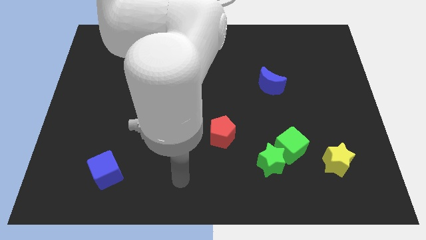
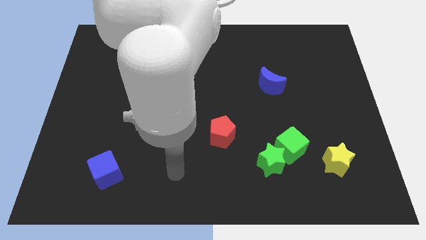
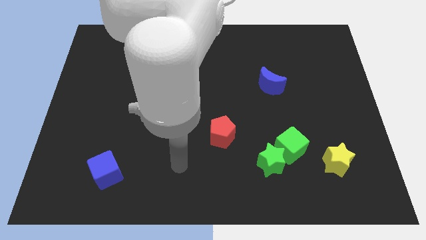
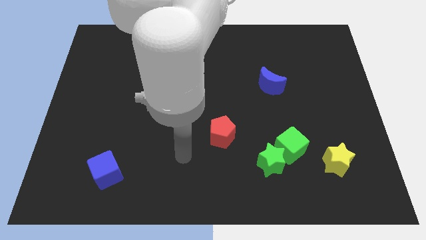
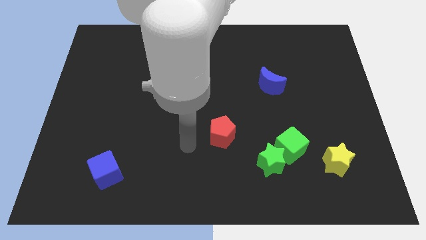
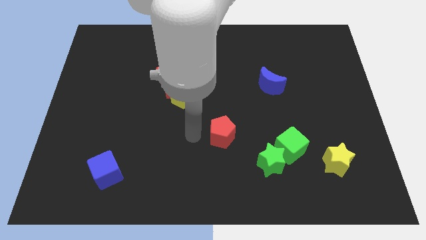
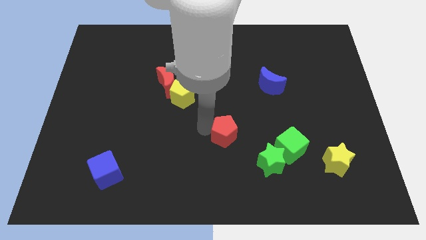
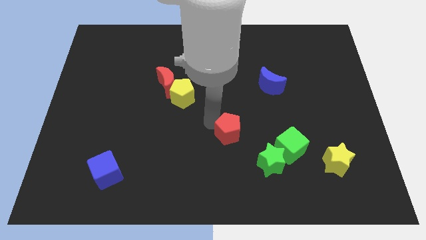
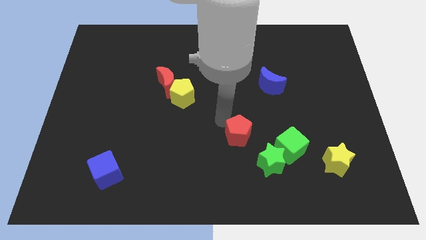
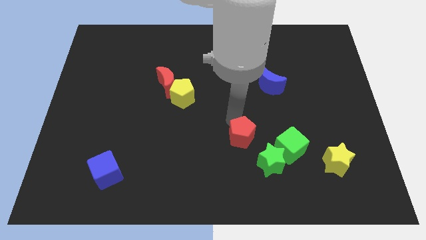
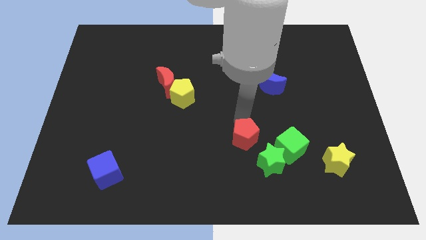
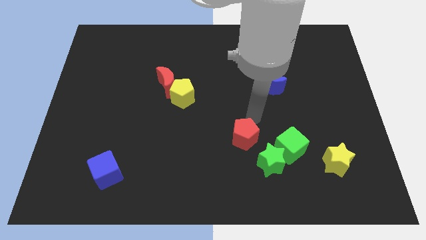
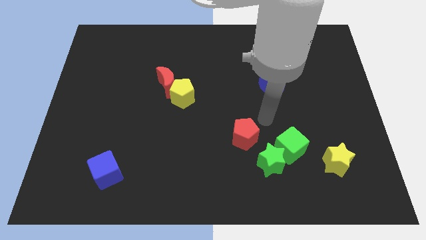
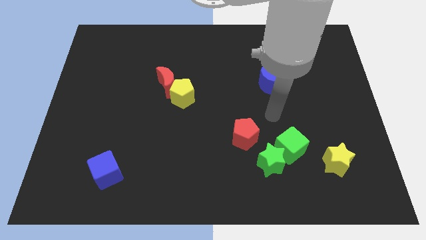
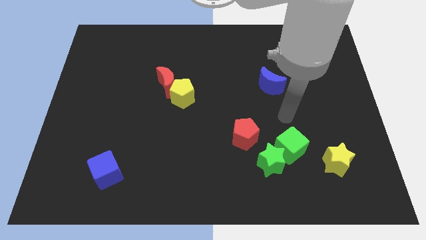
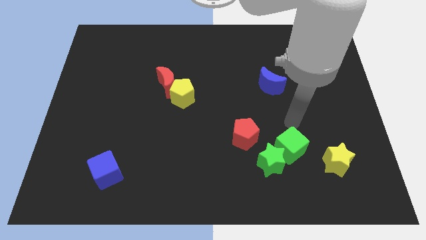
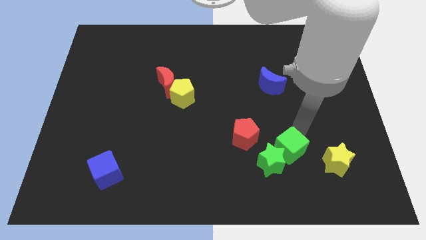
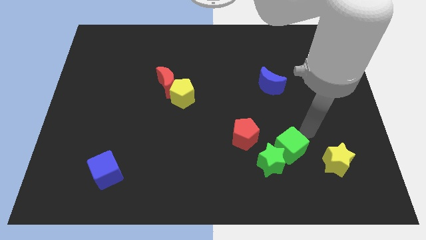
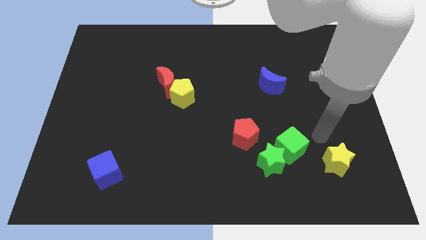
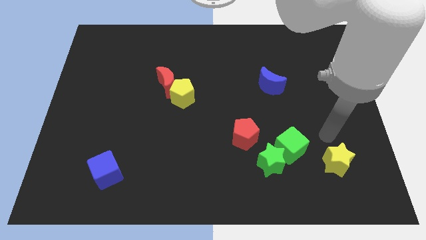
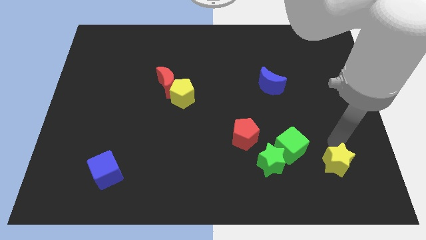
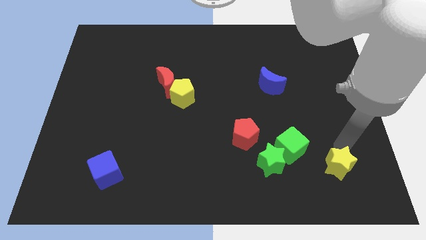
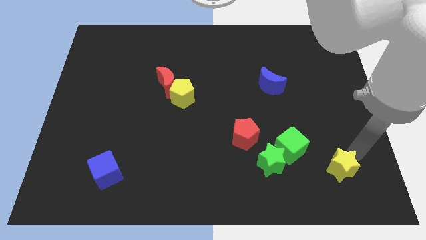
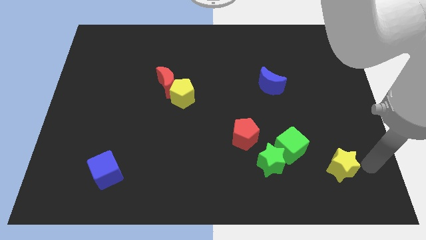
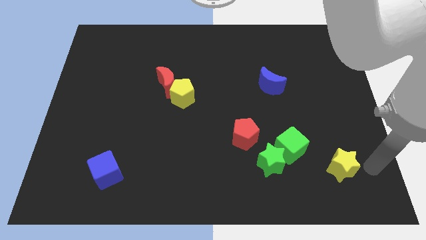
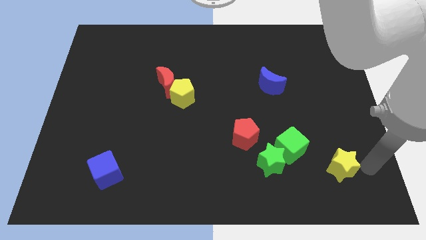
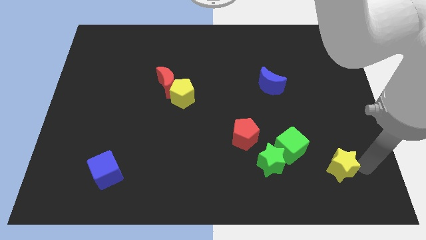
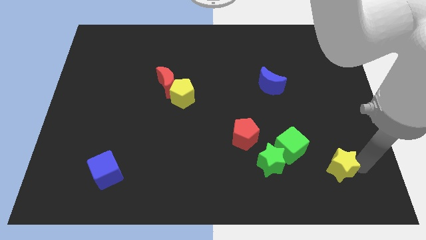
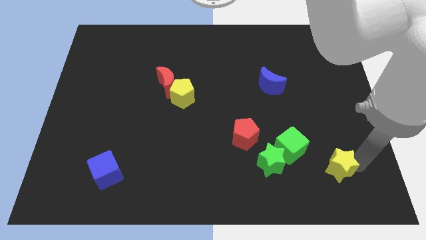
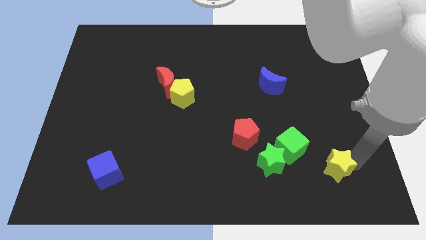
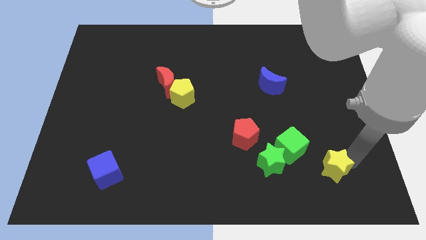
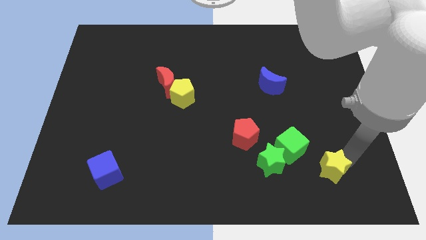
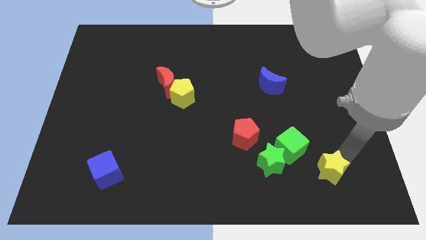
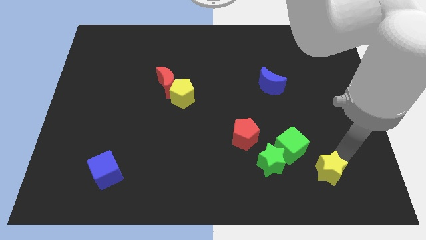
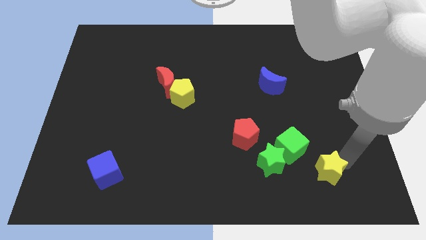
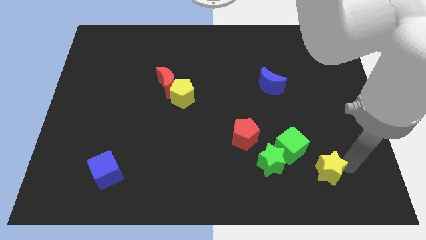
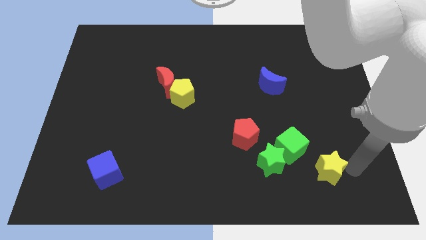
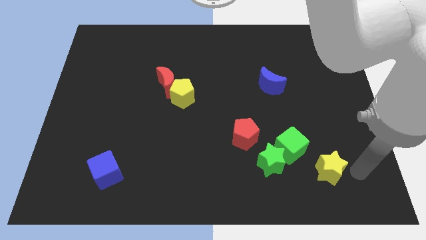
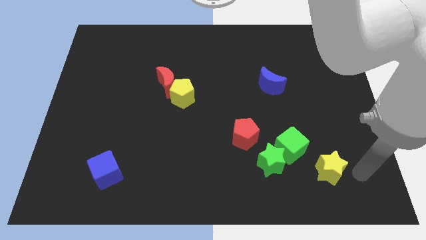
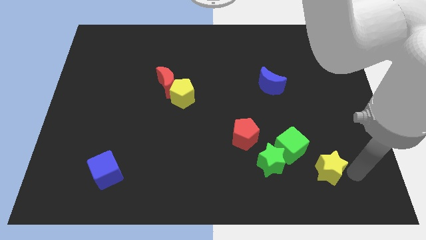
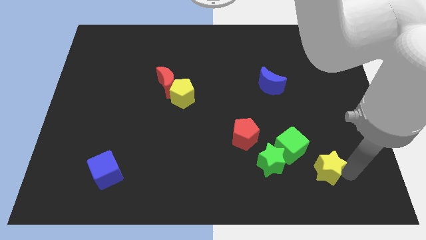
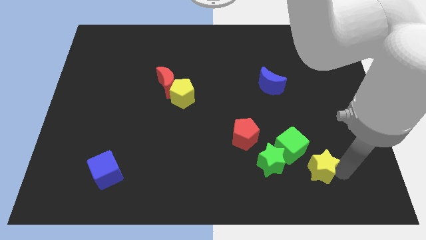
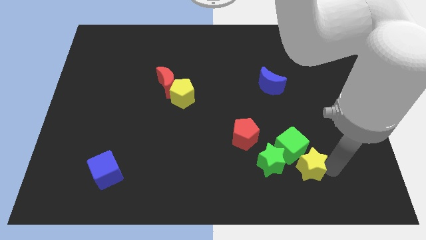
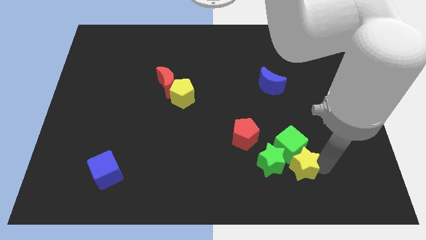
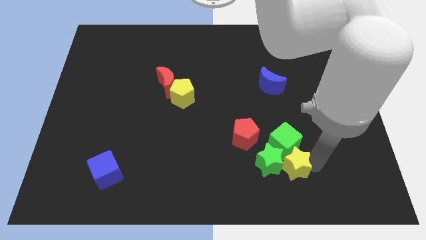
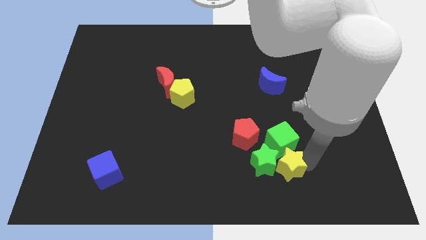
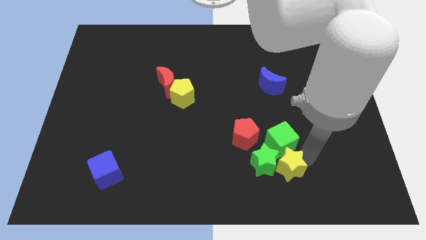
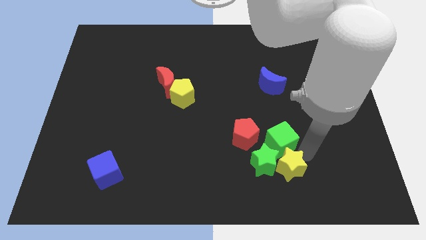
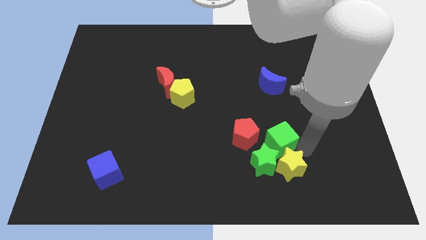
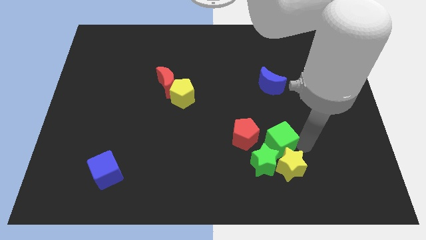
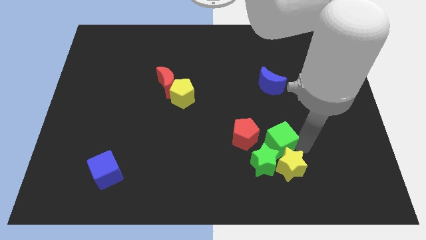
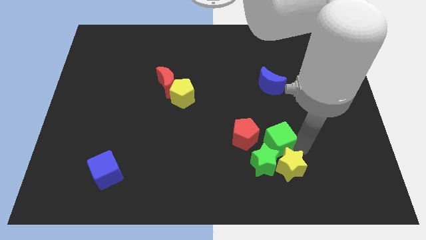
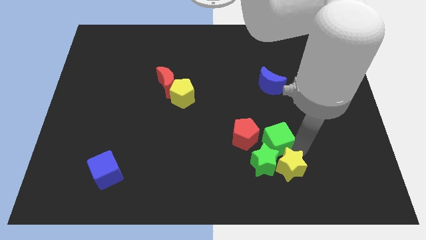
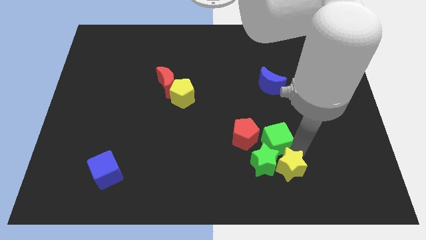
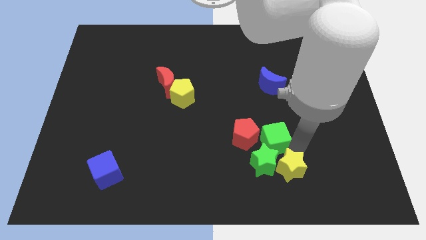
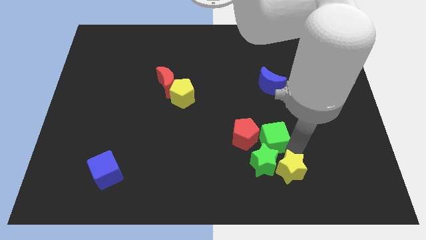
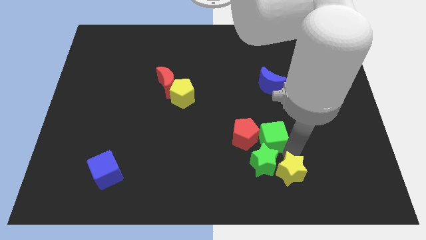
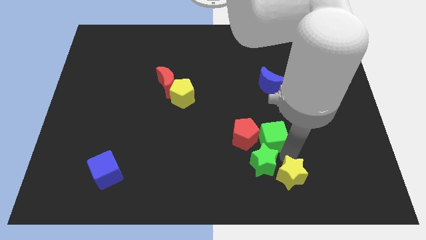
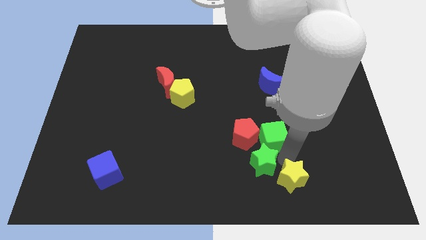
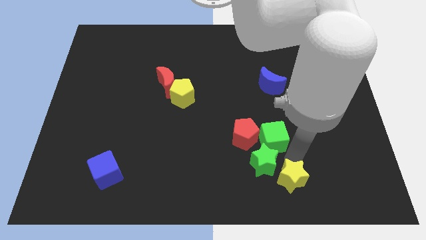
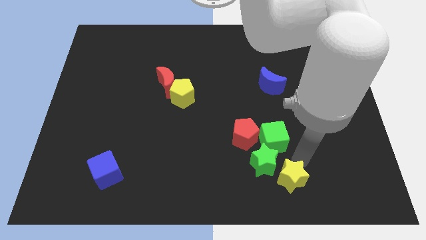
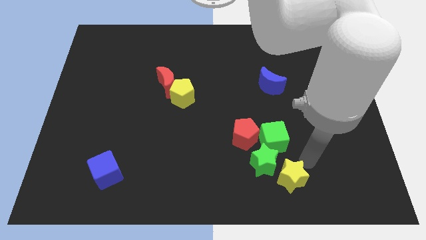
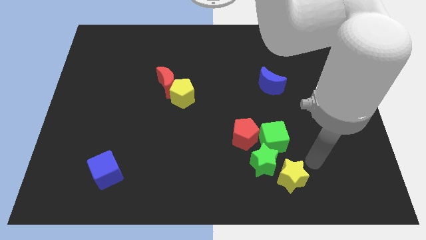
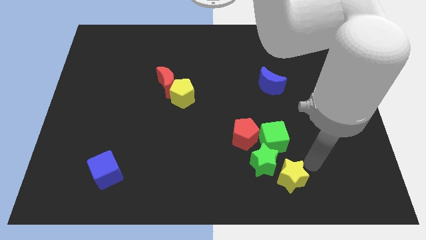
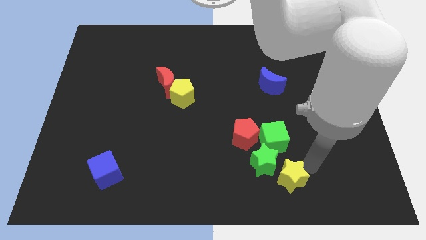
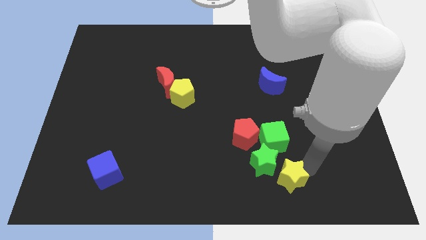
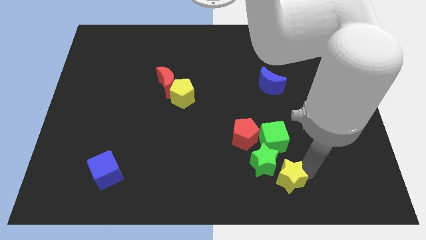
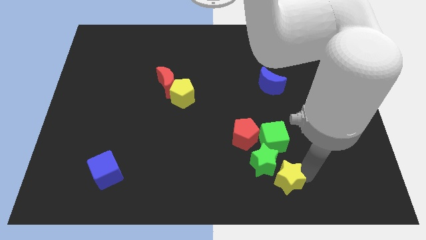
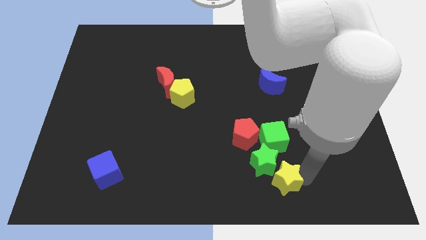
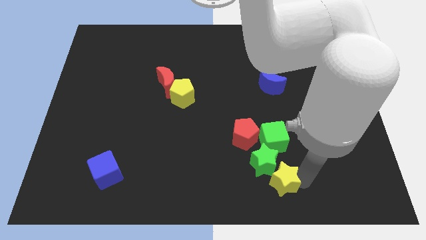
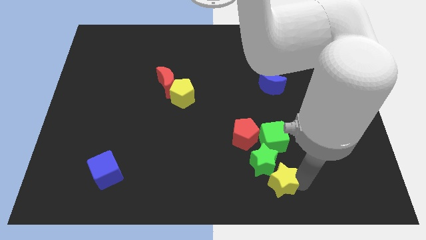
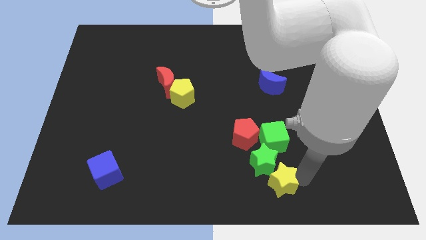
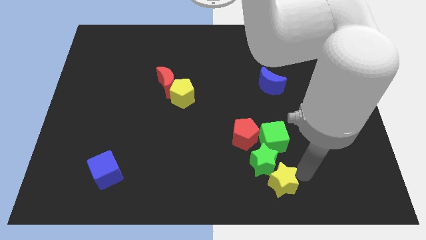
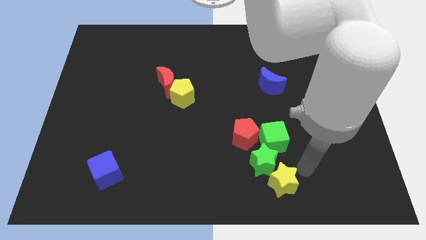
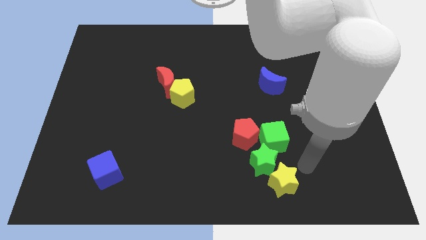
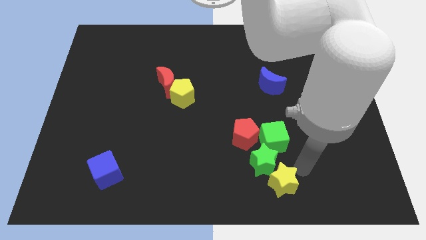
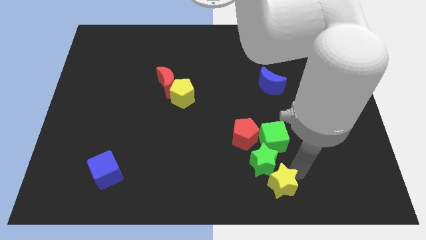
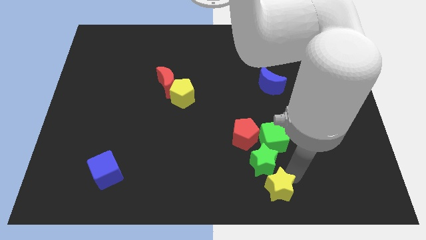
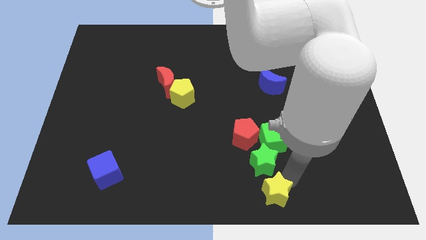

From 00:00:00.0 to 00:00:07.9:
move the yellow star to the bottom side
